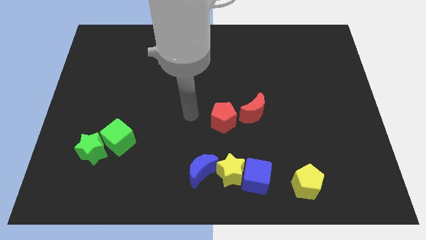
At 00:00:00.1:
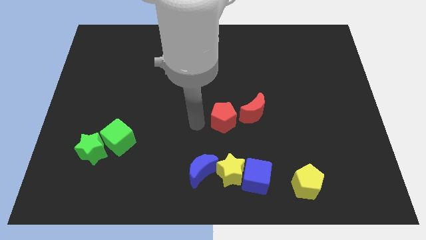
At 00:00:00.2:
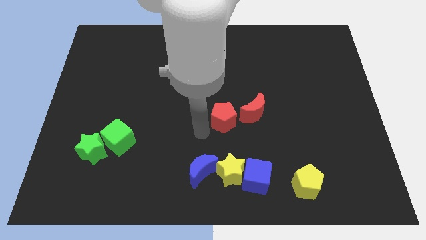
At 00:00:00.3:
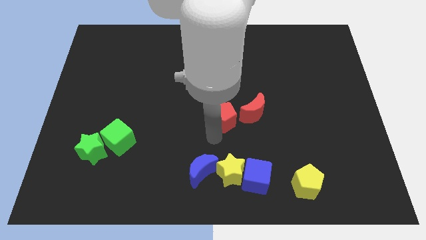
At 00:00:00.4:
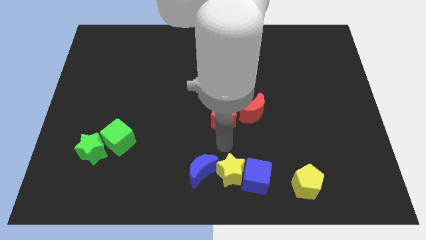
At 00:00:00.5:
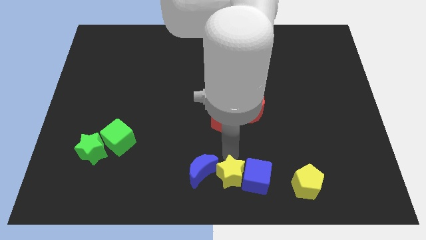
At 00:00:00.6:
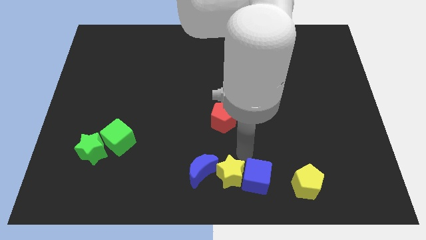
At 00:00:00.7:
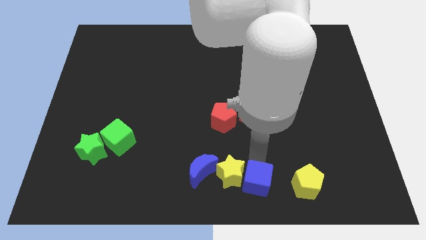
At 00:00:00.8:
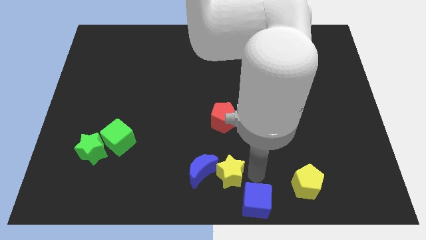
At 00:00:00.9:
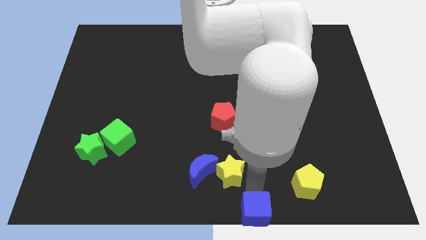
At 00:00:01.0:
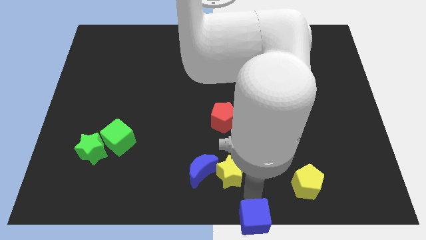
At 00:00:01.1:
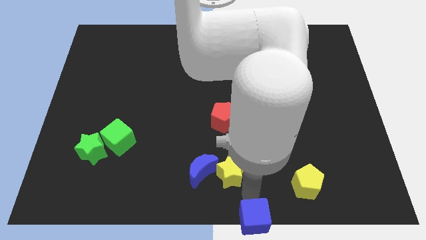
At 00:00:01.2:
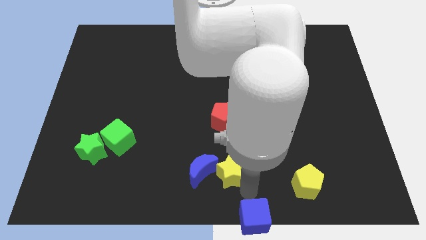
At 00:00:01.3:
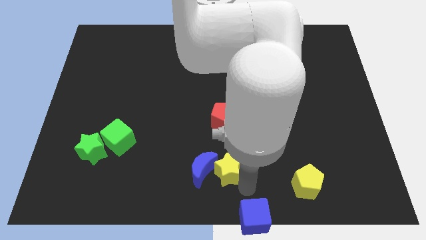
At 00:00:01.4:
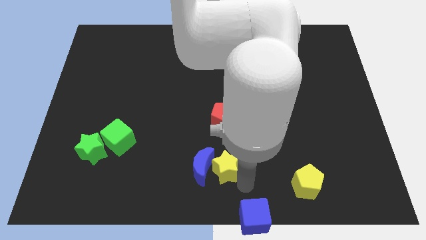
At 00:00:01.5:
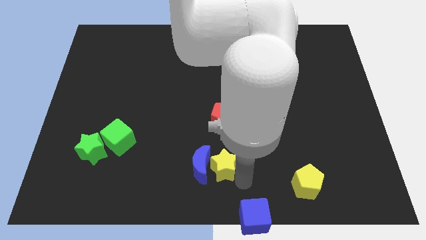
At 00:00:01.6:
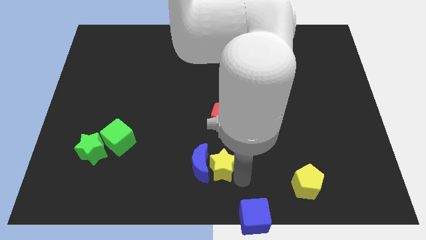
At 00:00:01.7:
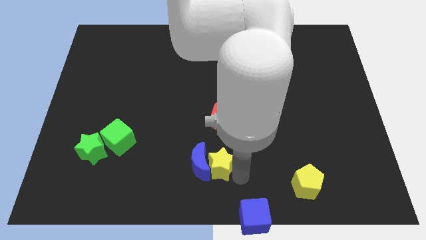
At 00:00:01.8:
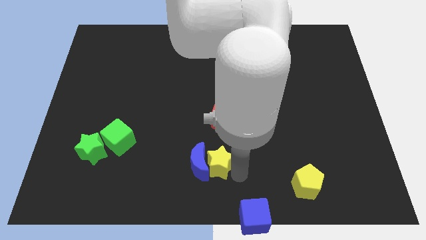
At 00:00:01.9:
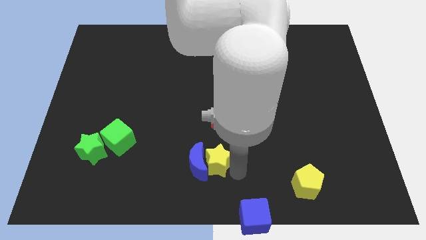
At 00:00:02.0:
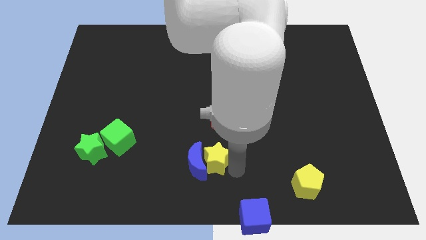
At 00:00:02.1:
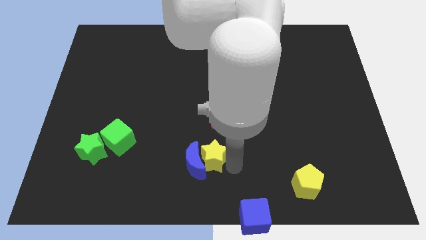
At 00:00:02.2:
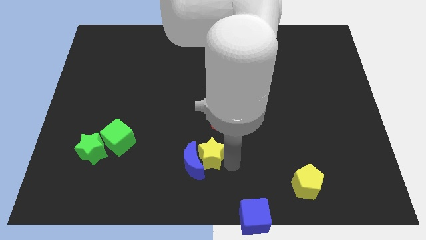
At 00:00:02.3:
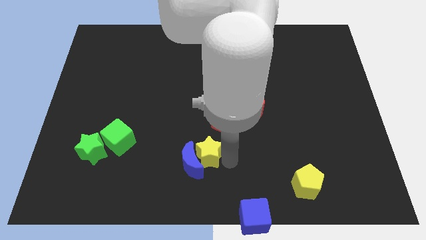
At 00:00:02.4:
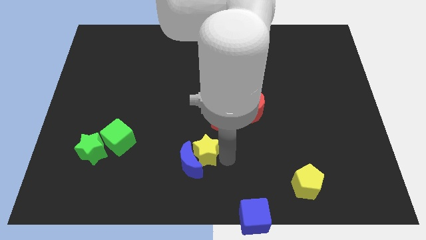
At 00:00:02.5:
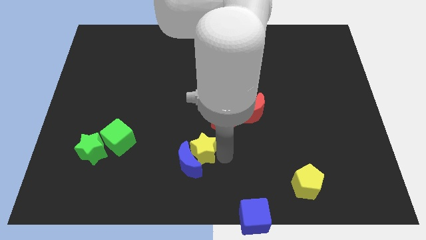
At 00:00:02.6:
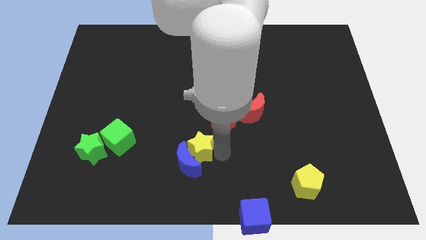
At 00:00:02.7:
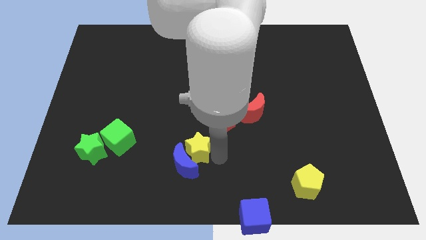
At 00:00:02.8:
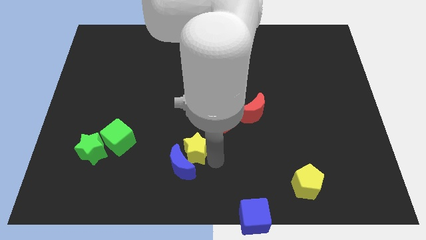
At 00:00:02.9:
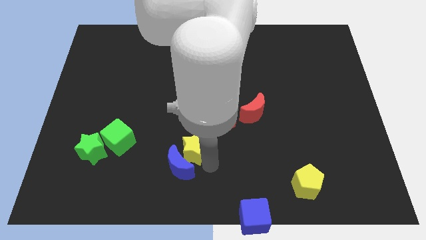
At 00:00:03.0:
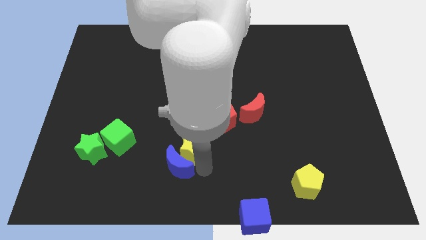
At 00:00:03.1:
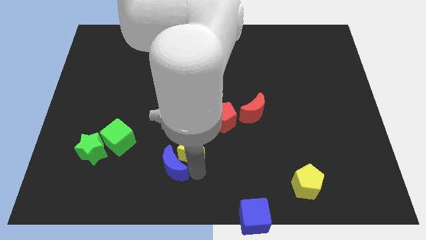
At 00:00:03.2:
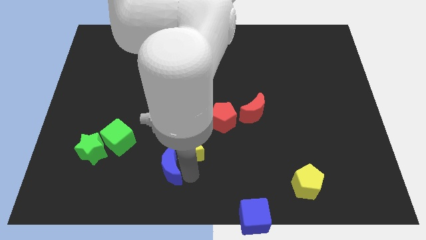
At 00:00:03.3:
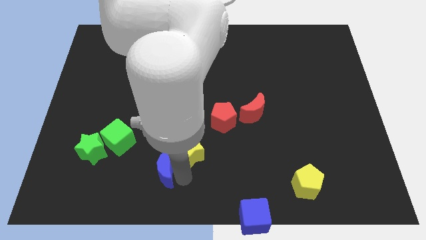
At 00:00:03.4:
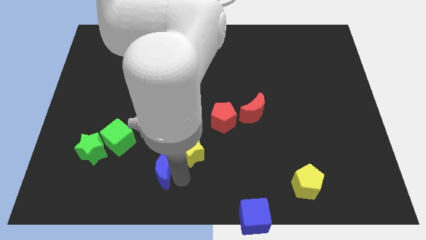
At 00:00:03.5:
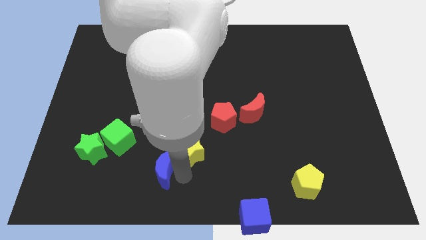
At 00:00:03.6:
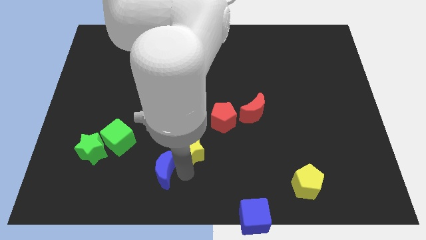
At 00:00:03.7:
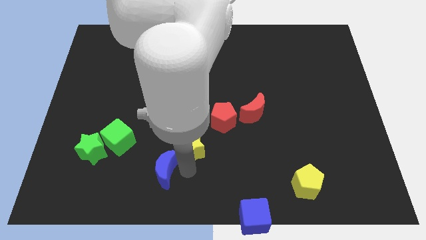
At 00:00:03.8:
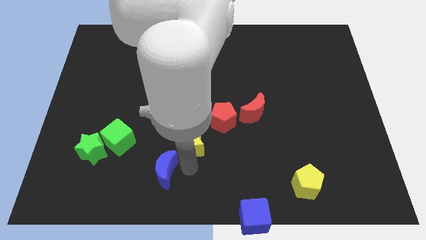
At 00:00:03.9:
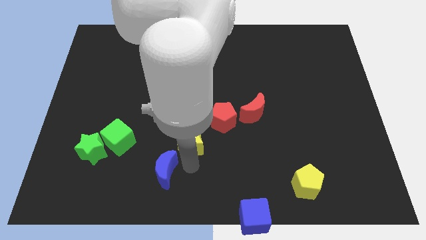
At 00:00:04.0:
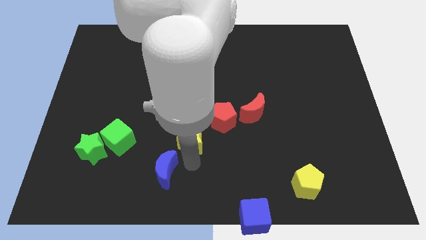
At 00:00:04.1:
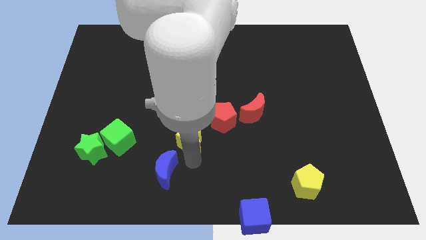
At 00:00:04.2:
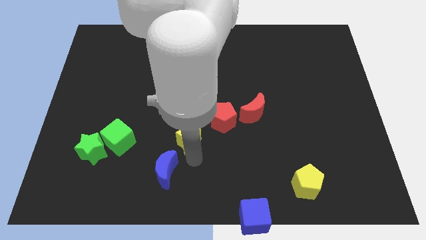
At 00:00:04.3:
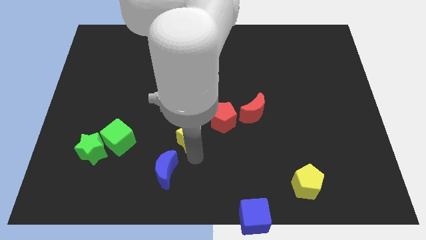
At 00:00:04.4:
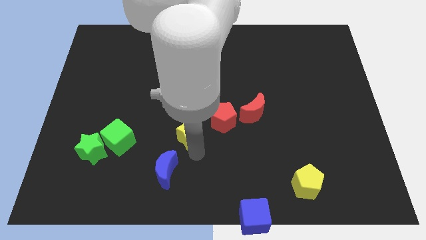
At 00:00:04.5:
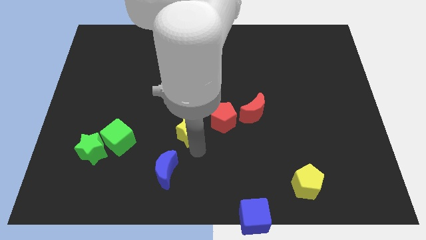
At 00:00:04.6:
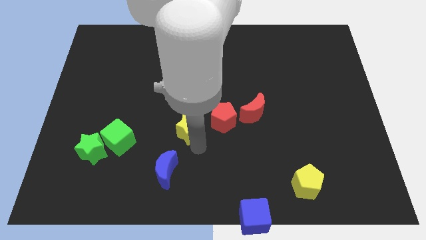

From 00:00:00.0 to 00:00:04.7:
push the yellow star up somewhat

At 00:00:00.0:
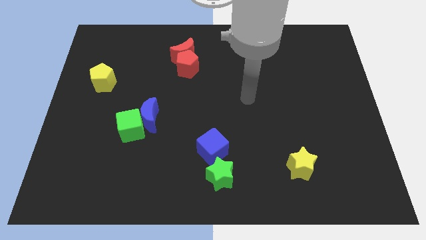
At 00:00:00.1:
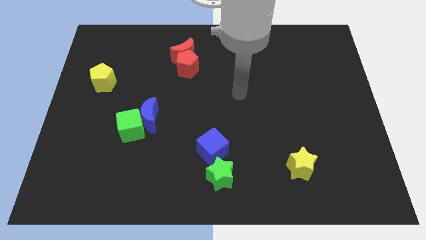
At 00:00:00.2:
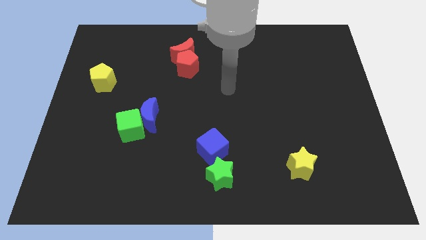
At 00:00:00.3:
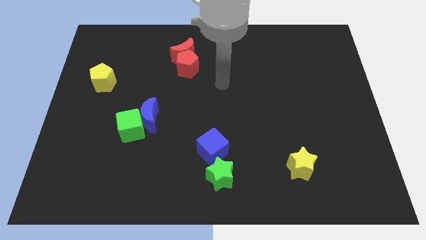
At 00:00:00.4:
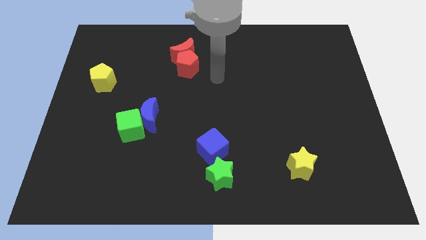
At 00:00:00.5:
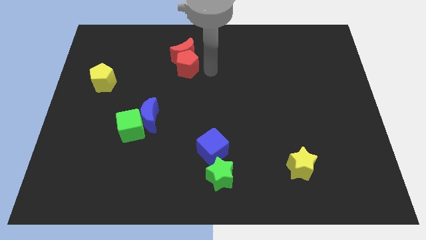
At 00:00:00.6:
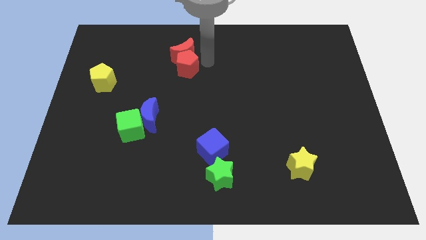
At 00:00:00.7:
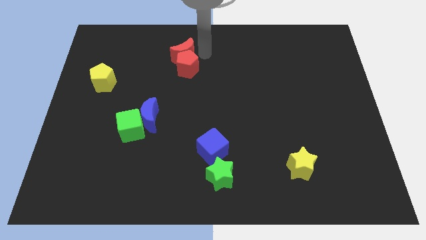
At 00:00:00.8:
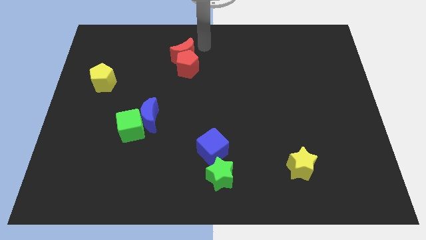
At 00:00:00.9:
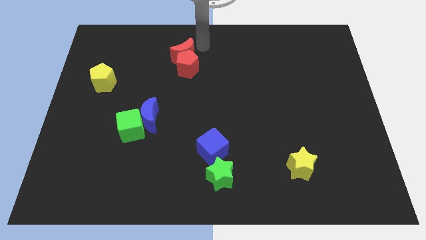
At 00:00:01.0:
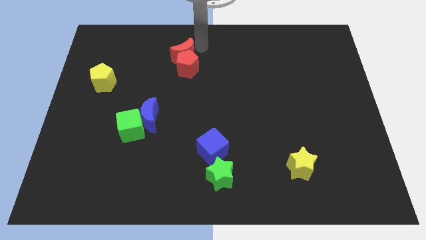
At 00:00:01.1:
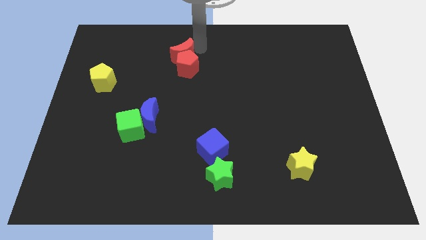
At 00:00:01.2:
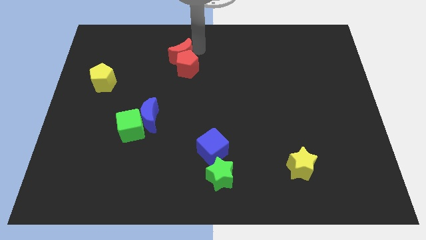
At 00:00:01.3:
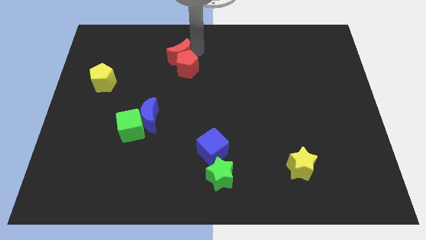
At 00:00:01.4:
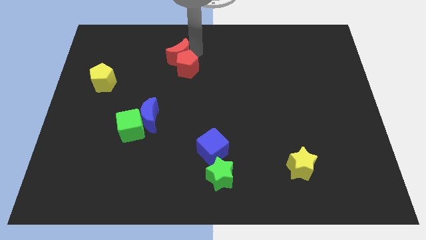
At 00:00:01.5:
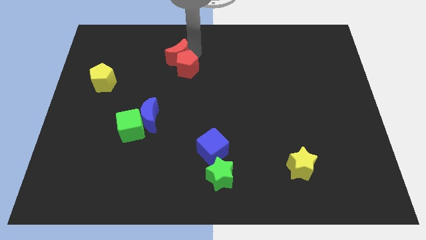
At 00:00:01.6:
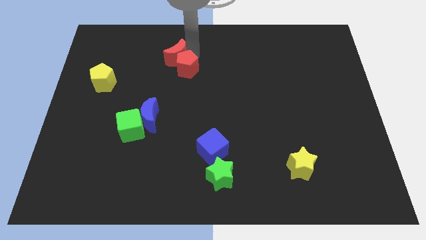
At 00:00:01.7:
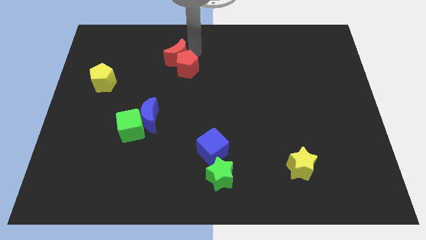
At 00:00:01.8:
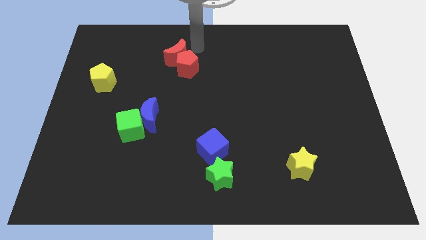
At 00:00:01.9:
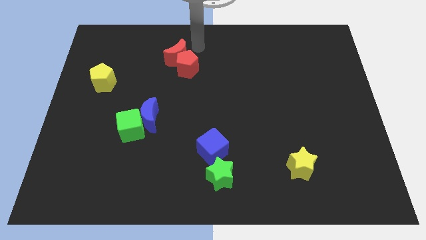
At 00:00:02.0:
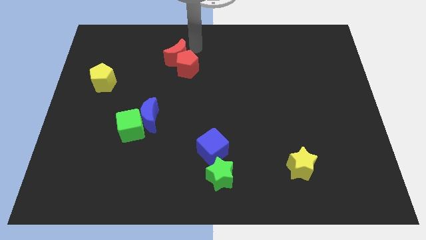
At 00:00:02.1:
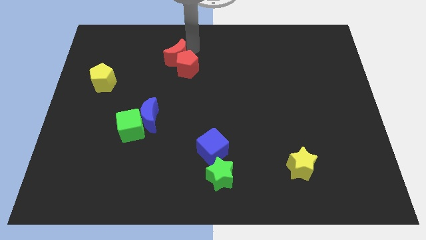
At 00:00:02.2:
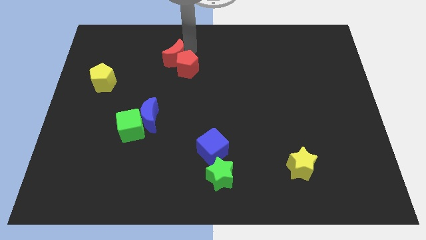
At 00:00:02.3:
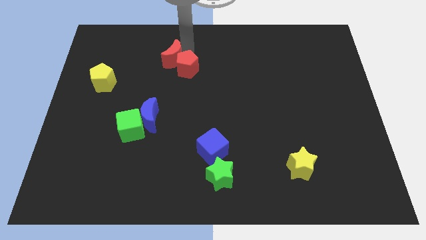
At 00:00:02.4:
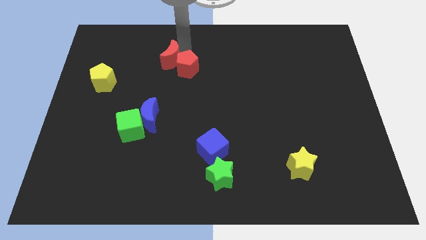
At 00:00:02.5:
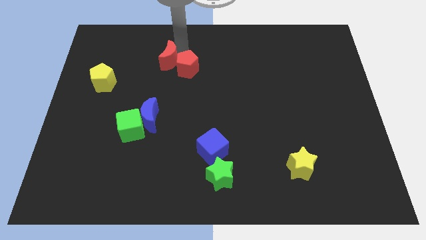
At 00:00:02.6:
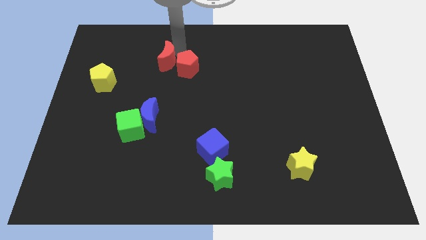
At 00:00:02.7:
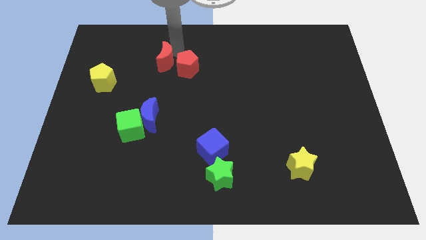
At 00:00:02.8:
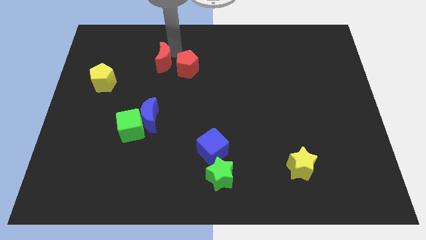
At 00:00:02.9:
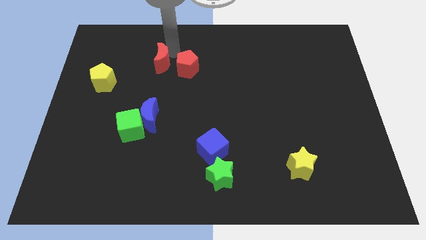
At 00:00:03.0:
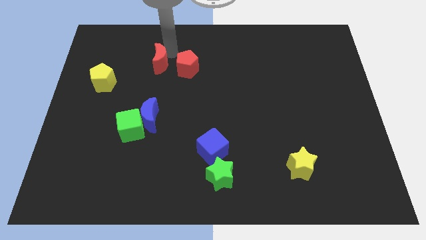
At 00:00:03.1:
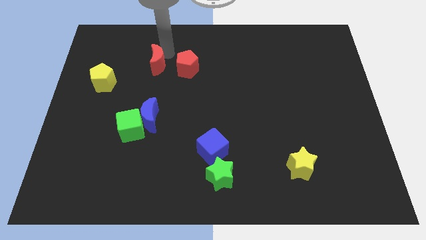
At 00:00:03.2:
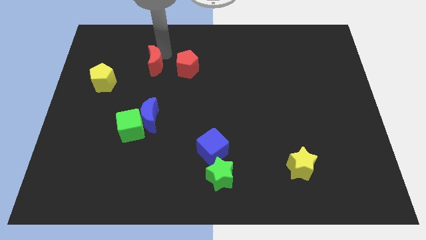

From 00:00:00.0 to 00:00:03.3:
slightly slide the red moon down and to the left diagonally
